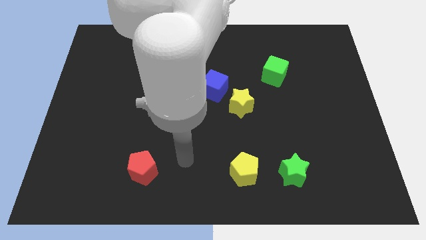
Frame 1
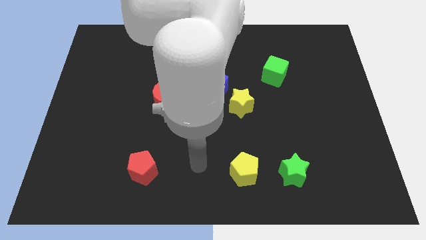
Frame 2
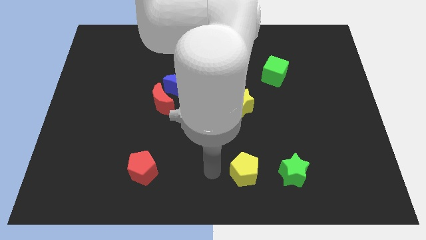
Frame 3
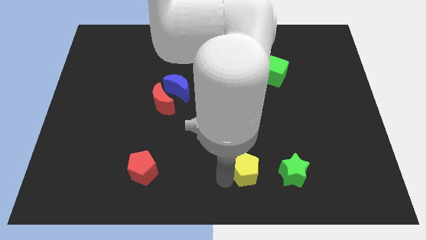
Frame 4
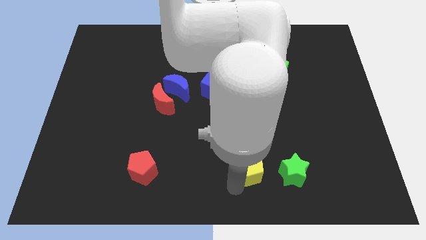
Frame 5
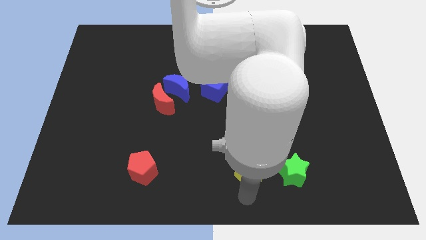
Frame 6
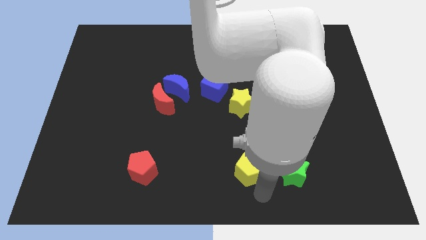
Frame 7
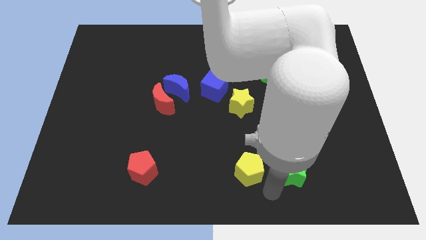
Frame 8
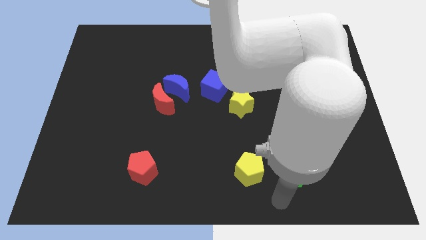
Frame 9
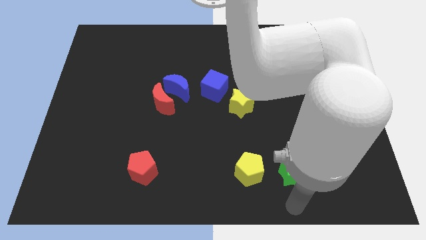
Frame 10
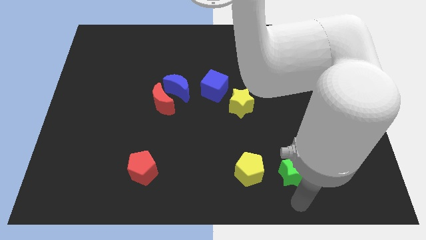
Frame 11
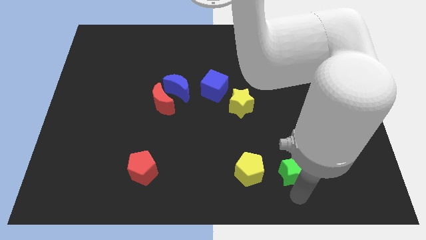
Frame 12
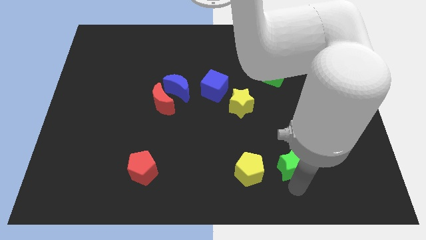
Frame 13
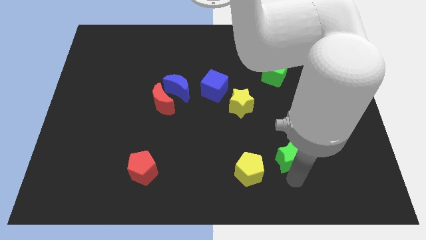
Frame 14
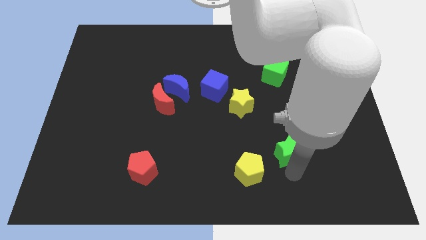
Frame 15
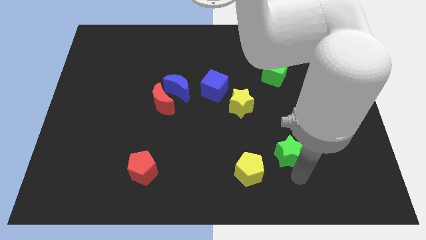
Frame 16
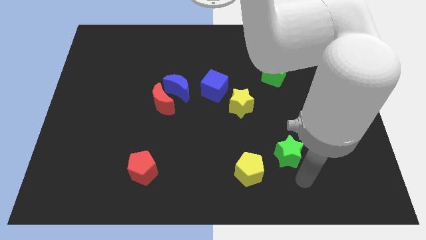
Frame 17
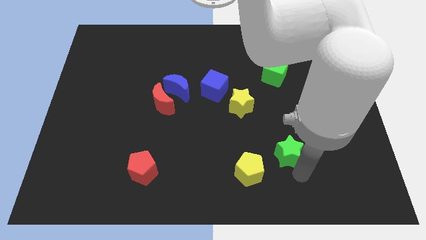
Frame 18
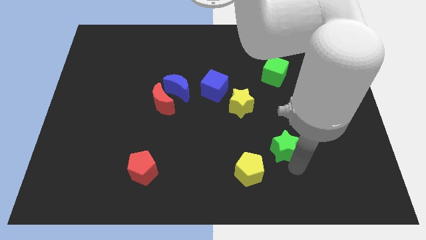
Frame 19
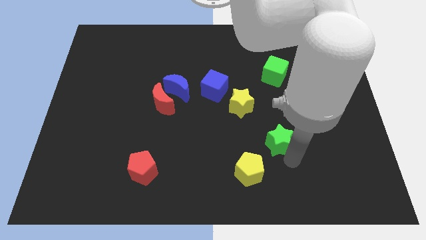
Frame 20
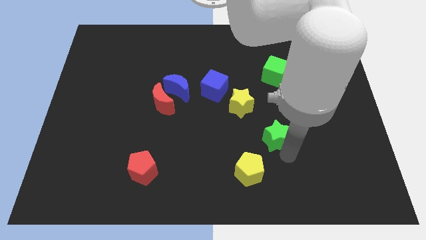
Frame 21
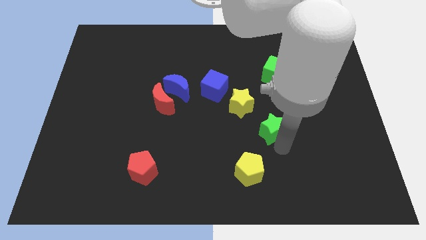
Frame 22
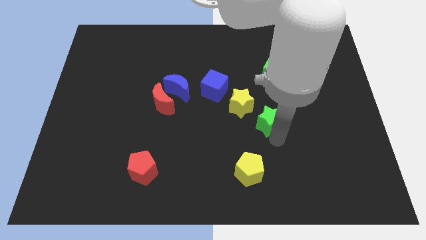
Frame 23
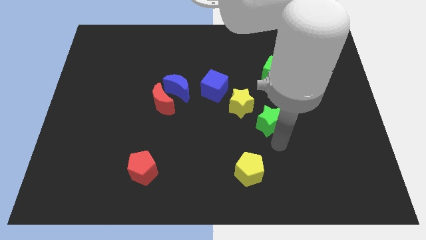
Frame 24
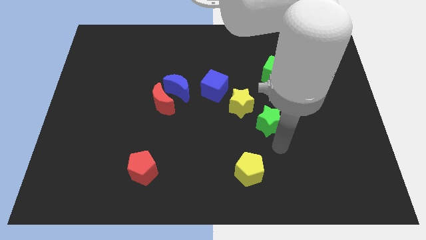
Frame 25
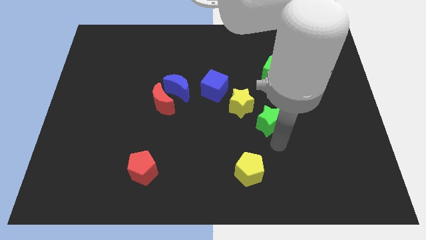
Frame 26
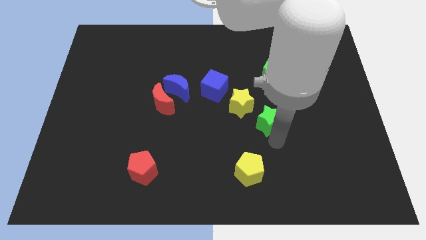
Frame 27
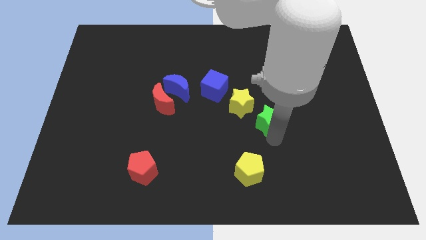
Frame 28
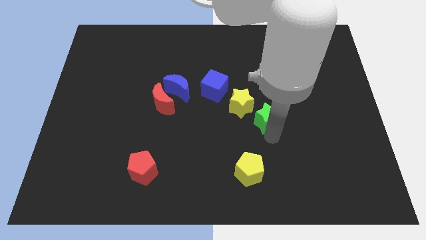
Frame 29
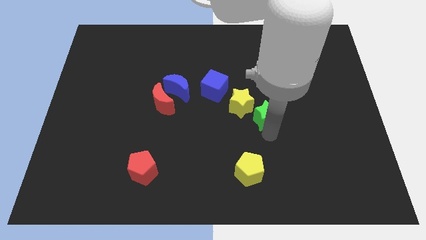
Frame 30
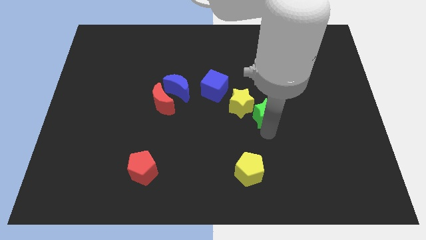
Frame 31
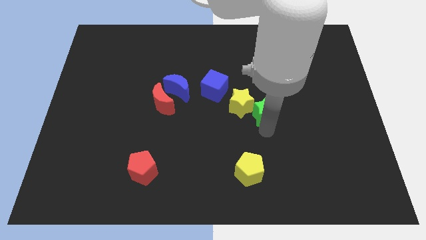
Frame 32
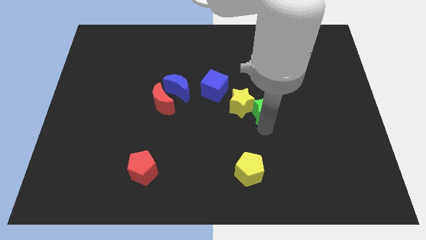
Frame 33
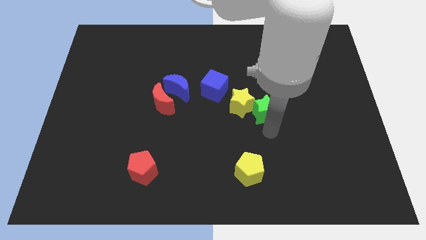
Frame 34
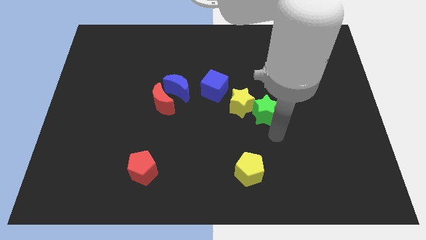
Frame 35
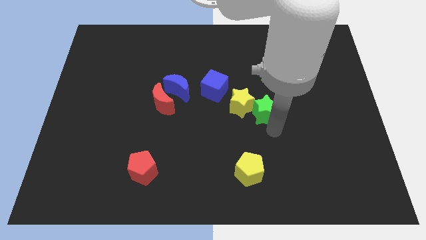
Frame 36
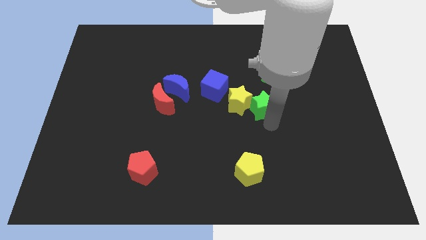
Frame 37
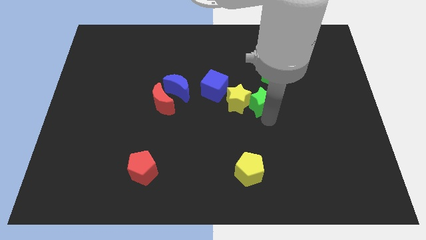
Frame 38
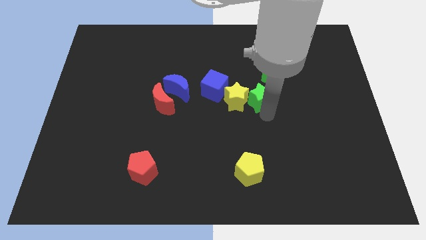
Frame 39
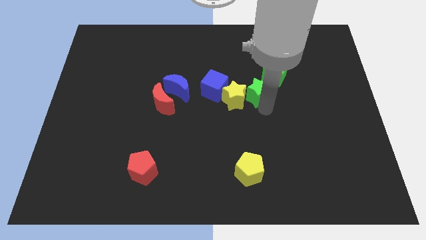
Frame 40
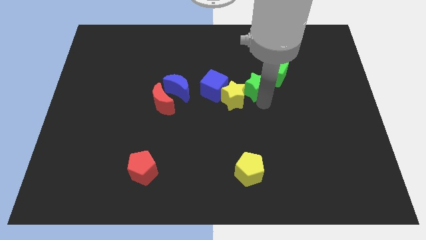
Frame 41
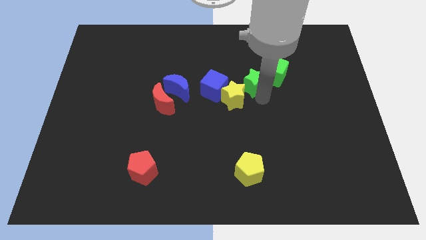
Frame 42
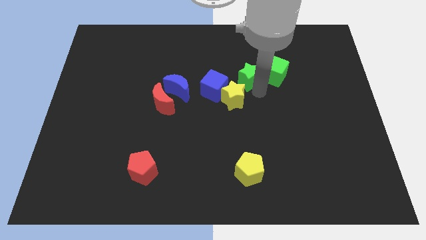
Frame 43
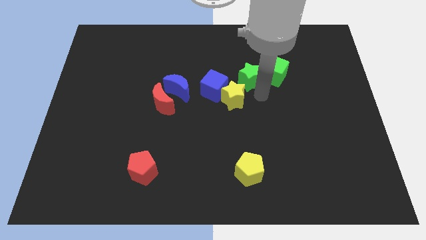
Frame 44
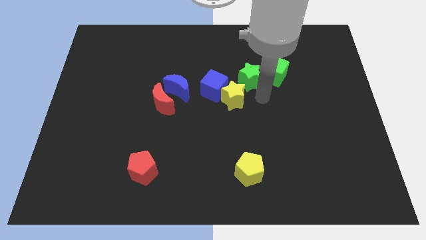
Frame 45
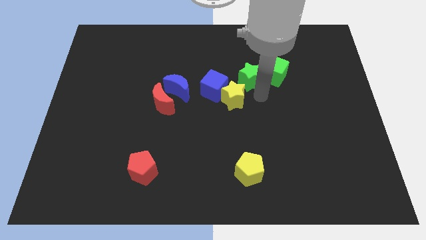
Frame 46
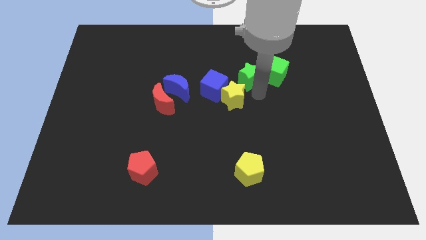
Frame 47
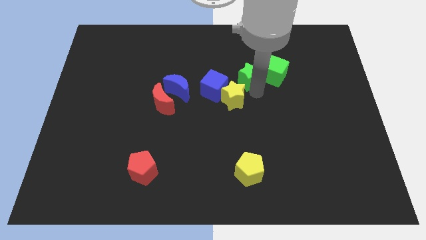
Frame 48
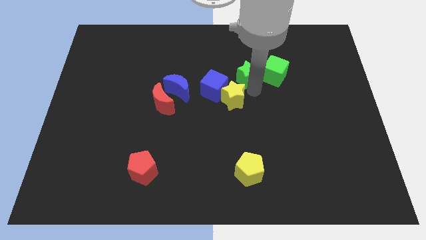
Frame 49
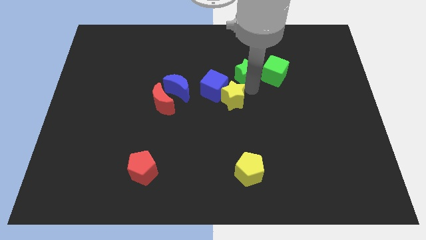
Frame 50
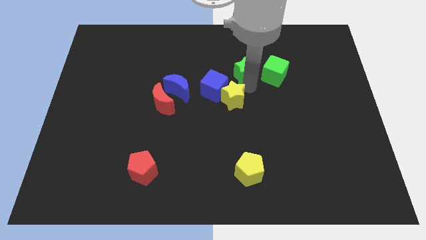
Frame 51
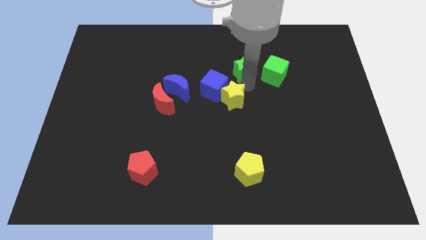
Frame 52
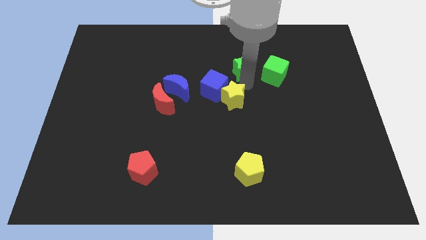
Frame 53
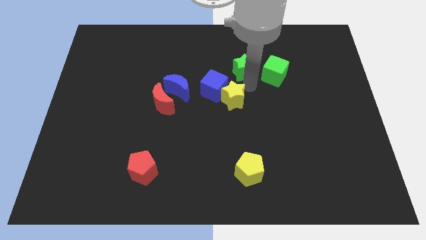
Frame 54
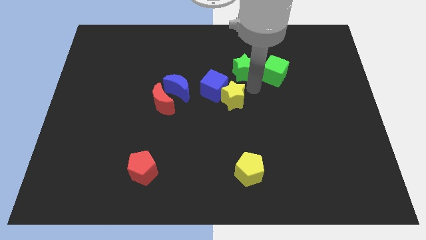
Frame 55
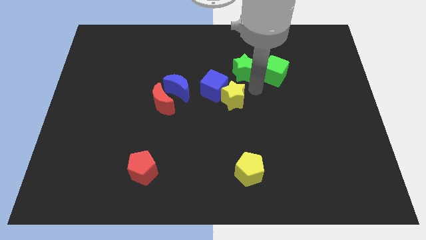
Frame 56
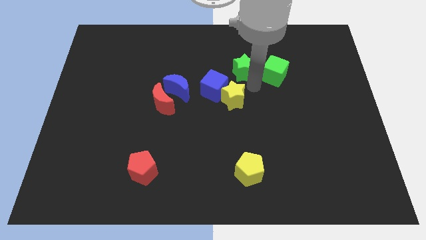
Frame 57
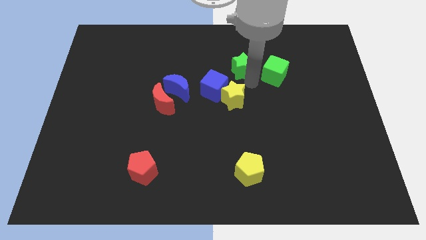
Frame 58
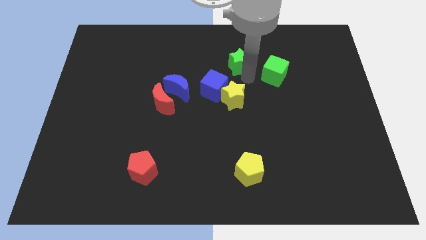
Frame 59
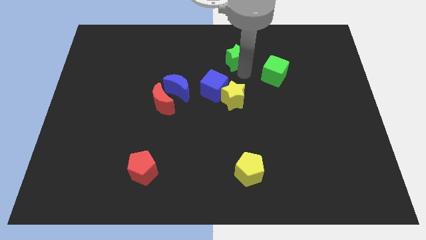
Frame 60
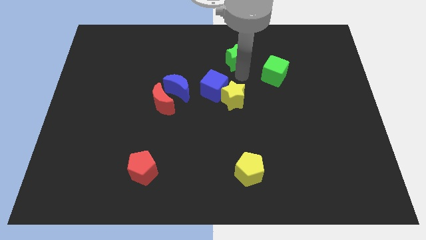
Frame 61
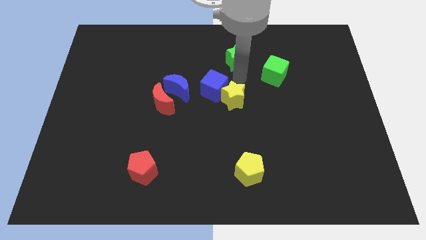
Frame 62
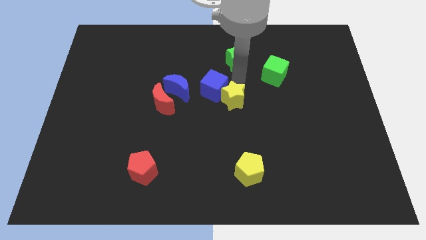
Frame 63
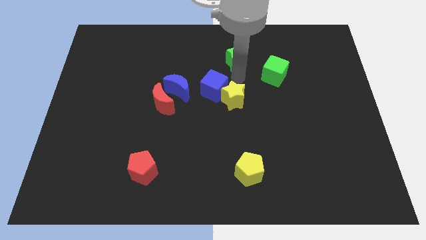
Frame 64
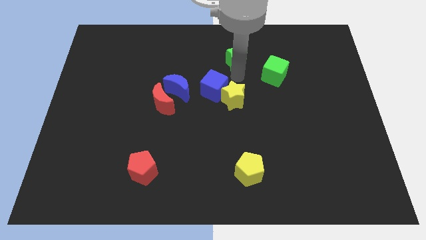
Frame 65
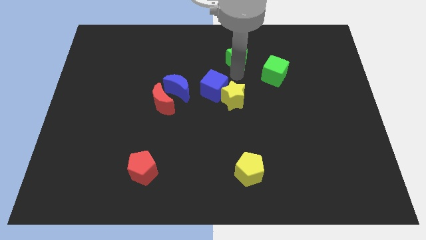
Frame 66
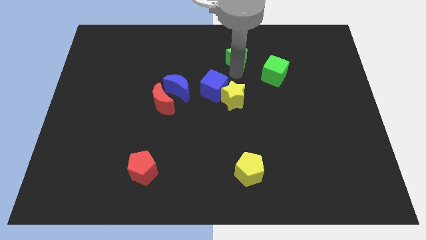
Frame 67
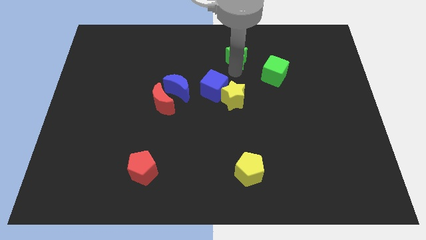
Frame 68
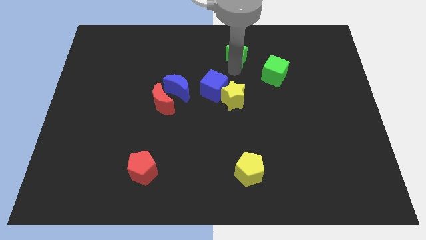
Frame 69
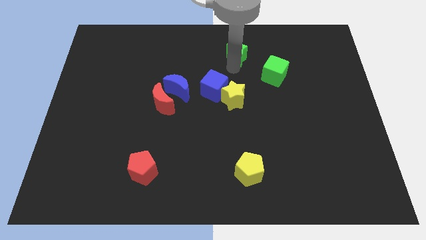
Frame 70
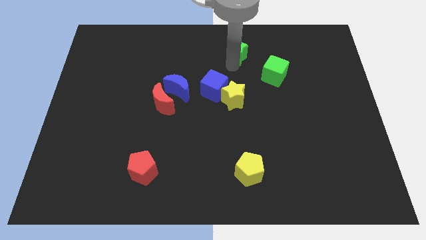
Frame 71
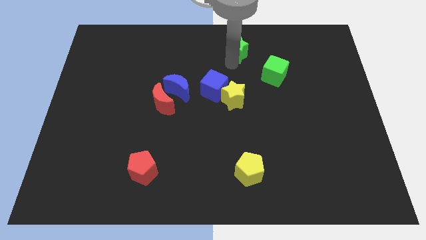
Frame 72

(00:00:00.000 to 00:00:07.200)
put the green star to the top
